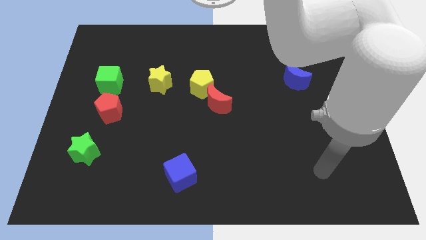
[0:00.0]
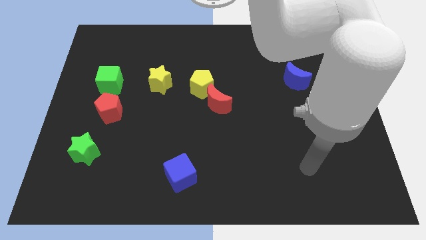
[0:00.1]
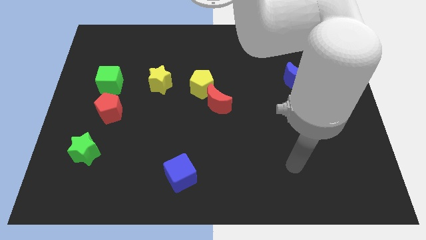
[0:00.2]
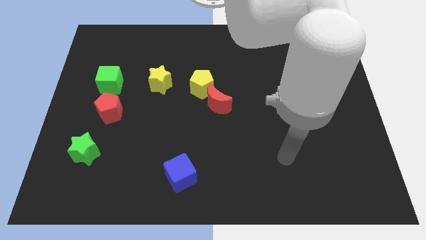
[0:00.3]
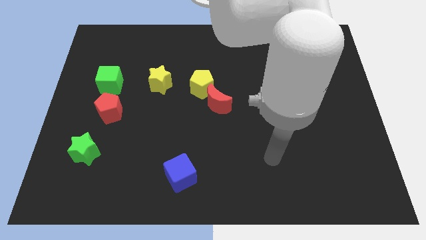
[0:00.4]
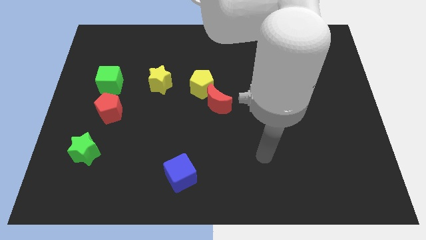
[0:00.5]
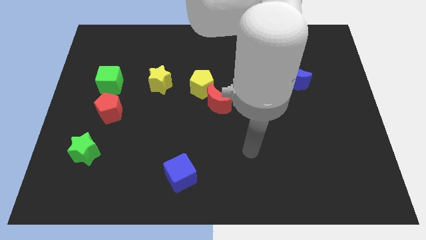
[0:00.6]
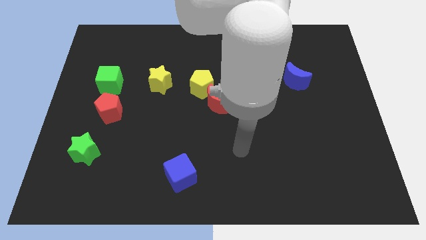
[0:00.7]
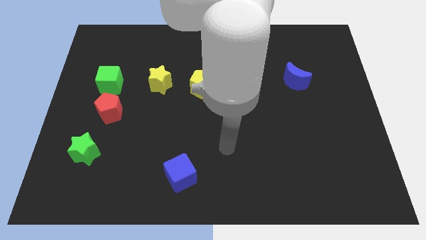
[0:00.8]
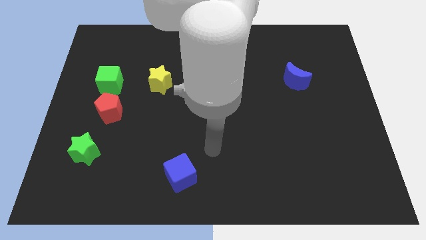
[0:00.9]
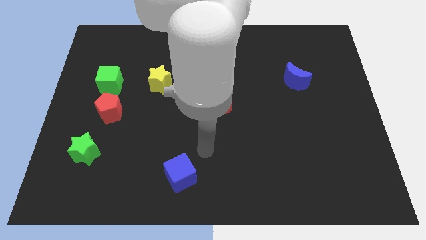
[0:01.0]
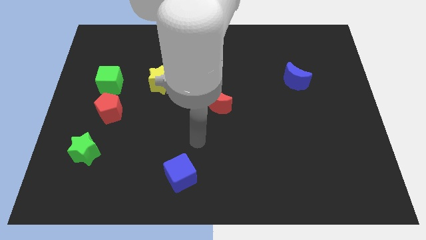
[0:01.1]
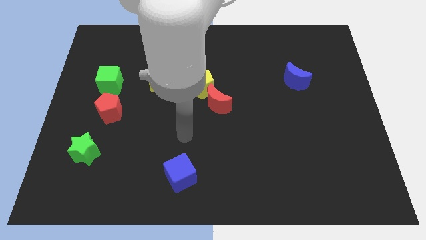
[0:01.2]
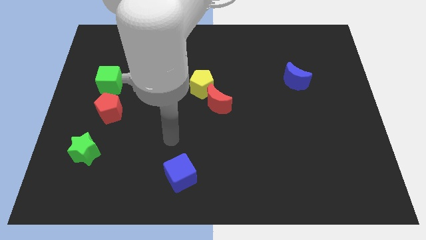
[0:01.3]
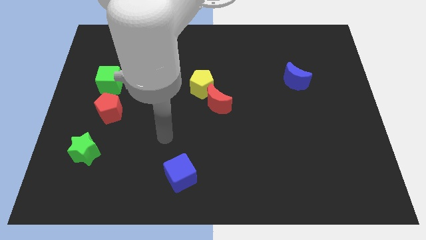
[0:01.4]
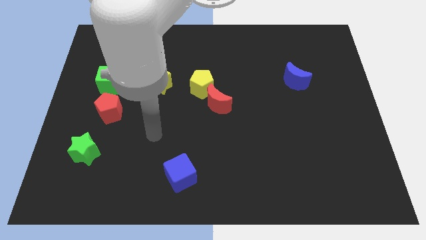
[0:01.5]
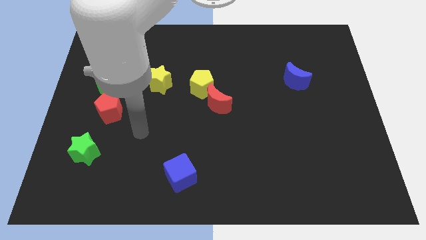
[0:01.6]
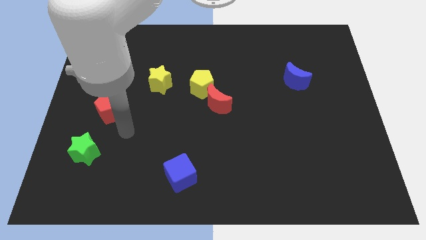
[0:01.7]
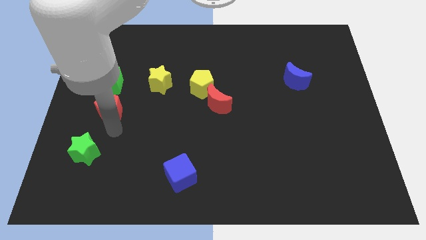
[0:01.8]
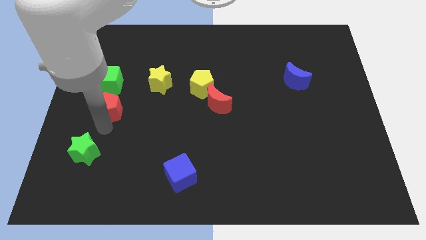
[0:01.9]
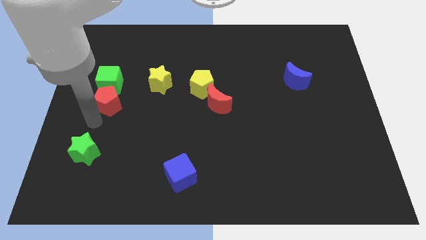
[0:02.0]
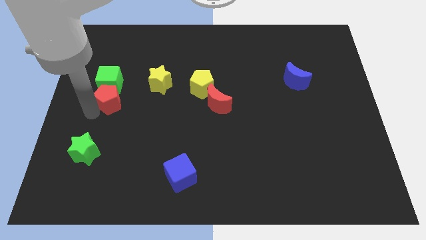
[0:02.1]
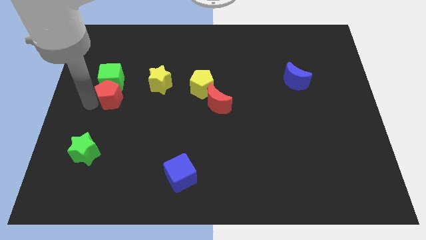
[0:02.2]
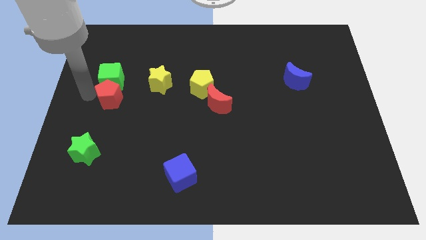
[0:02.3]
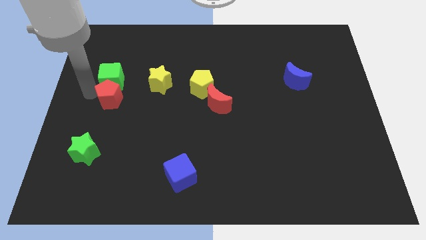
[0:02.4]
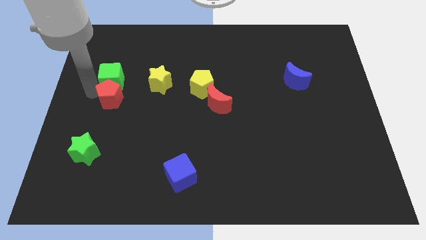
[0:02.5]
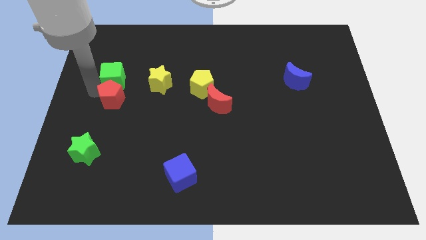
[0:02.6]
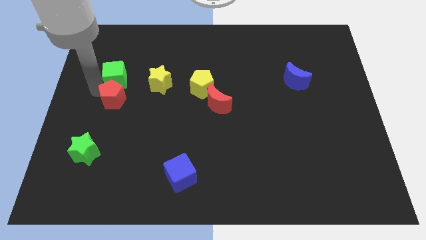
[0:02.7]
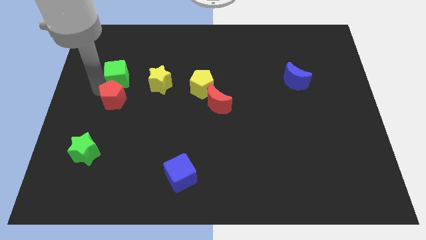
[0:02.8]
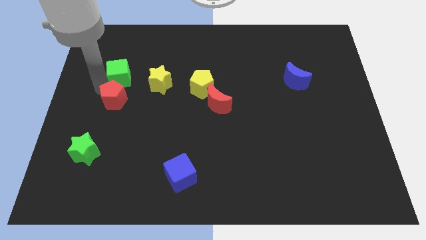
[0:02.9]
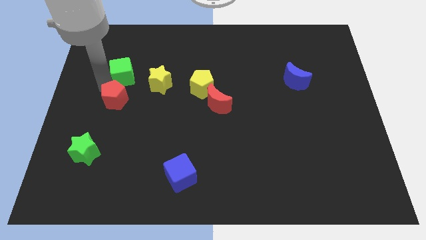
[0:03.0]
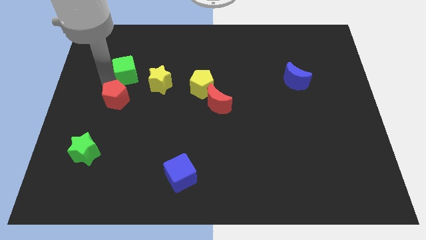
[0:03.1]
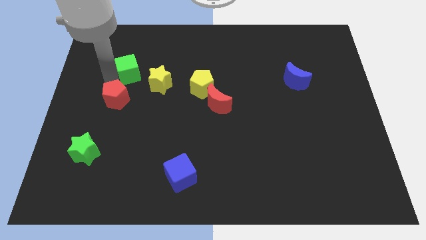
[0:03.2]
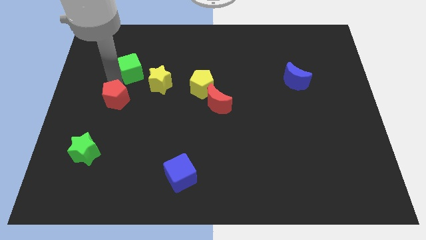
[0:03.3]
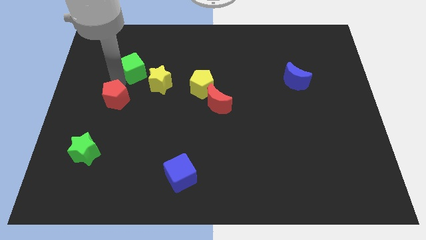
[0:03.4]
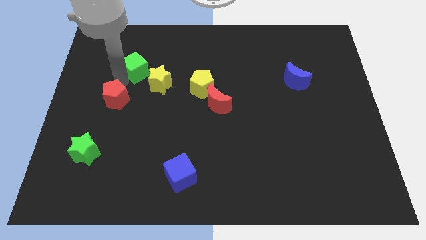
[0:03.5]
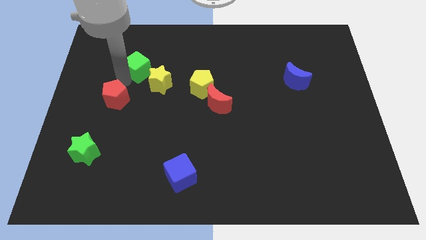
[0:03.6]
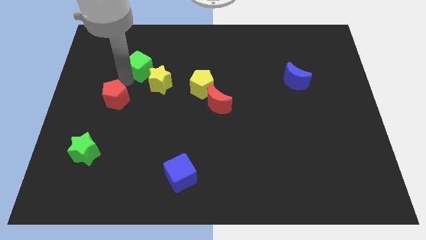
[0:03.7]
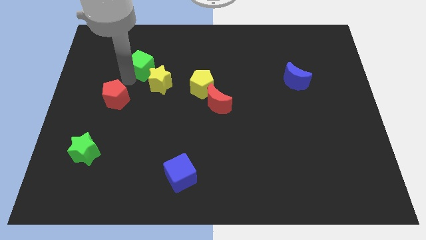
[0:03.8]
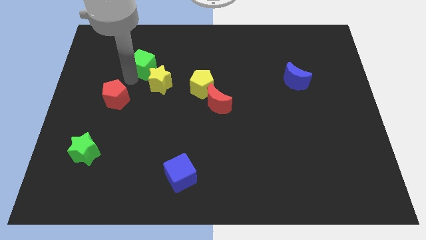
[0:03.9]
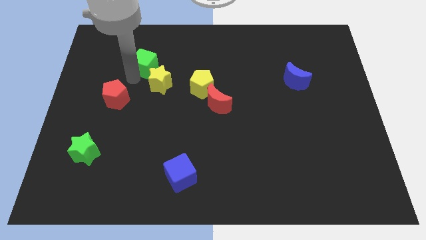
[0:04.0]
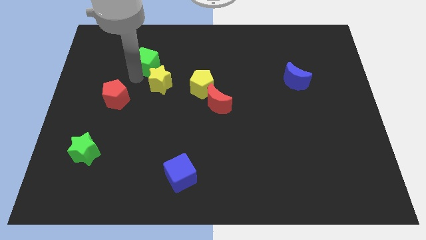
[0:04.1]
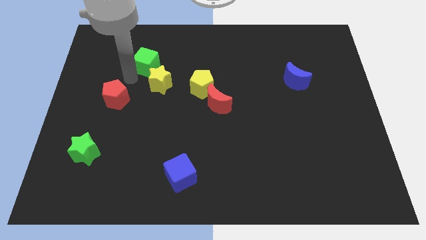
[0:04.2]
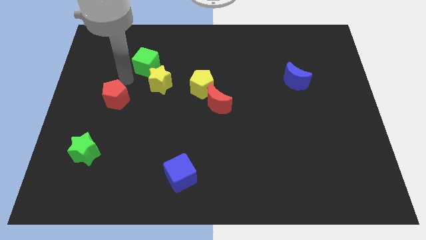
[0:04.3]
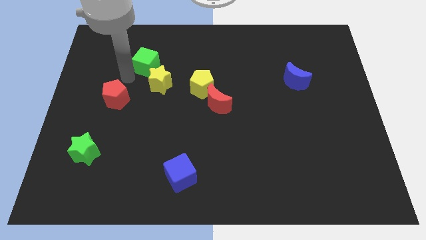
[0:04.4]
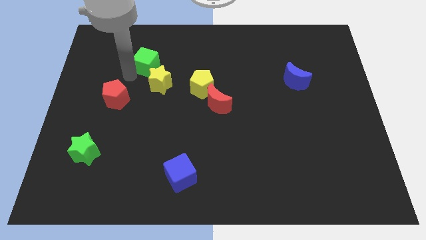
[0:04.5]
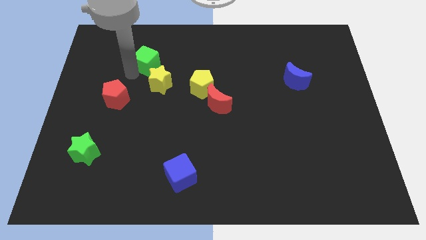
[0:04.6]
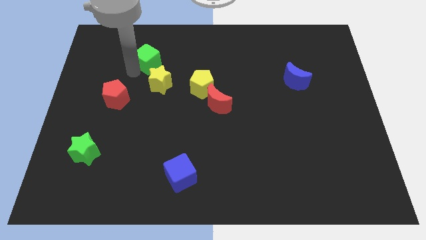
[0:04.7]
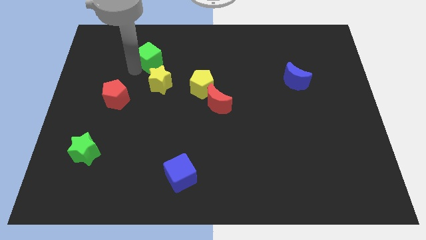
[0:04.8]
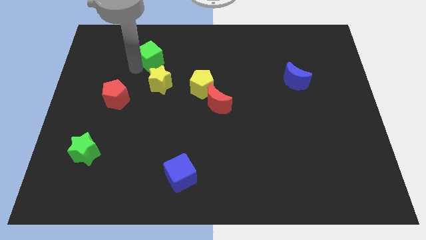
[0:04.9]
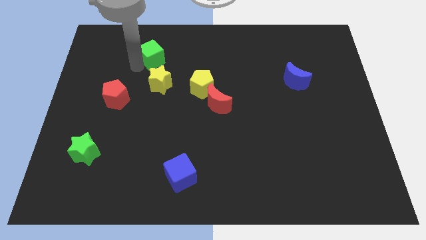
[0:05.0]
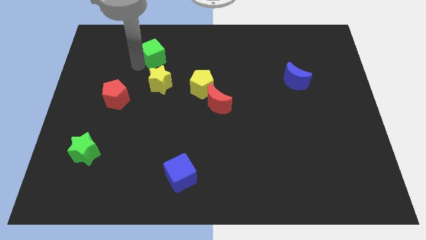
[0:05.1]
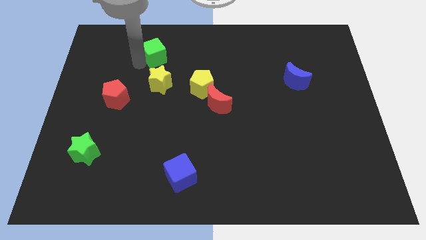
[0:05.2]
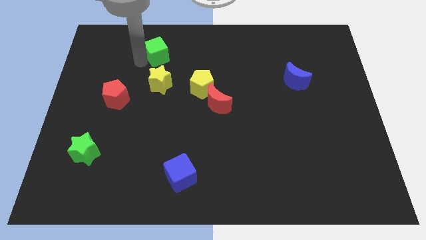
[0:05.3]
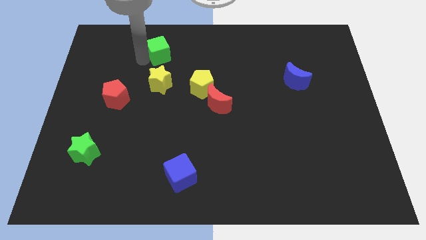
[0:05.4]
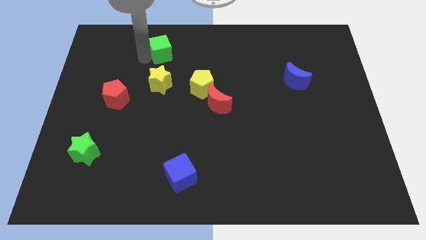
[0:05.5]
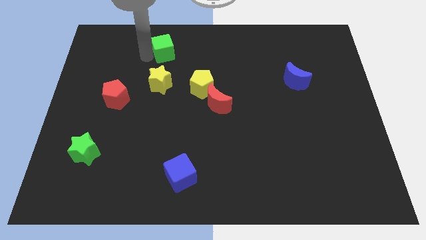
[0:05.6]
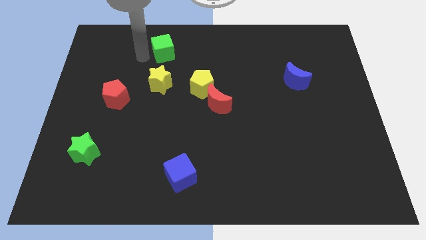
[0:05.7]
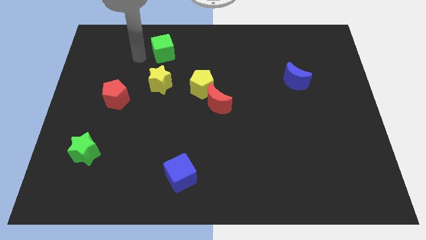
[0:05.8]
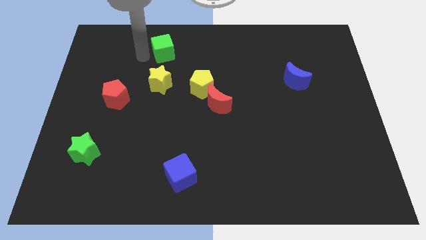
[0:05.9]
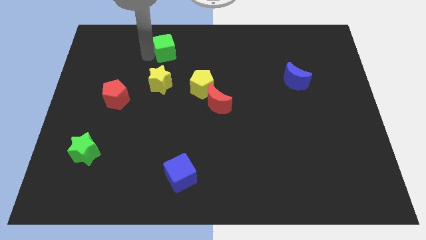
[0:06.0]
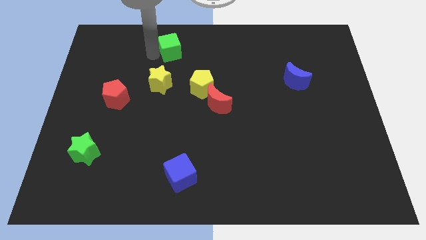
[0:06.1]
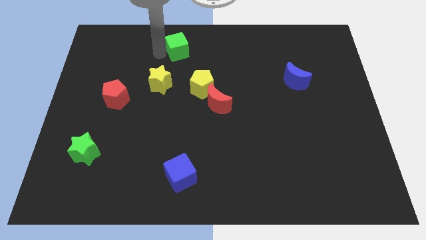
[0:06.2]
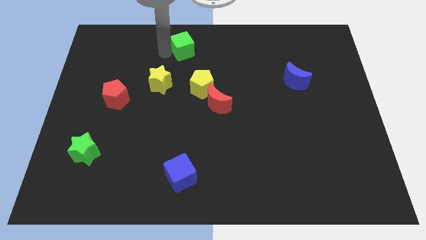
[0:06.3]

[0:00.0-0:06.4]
slide the green cube to the top side
